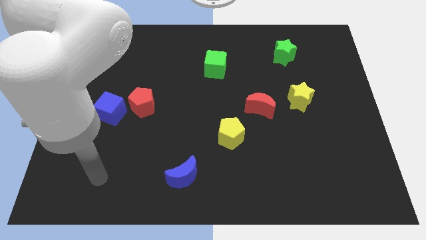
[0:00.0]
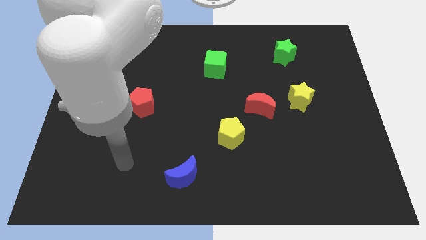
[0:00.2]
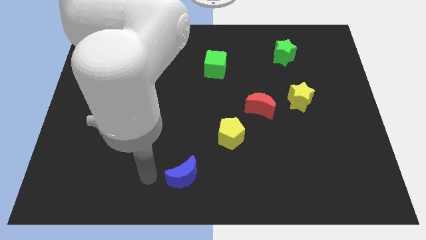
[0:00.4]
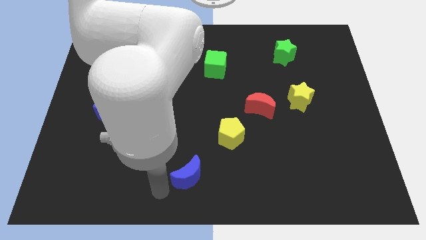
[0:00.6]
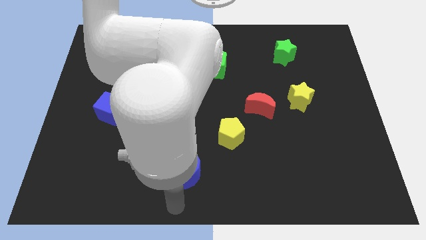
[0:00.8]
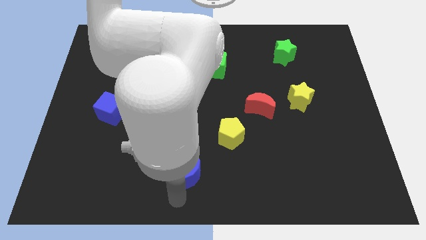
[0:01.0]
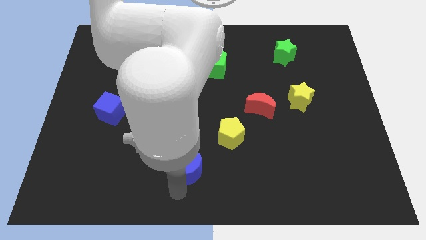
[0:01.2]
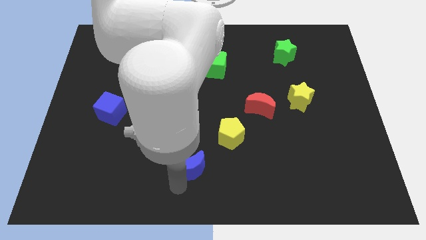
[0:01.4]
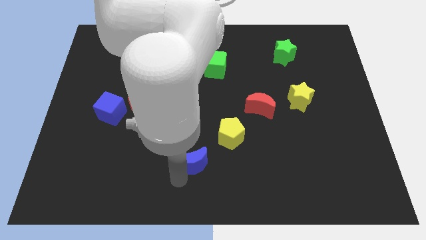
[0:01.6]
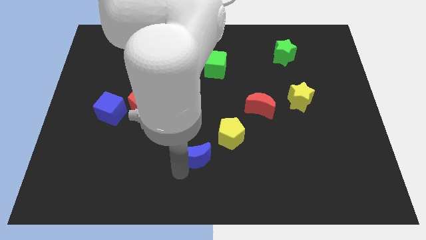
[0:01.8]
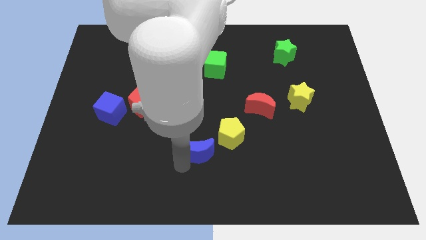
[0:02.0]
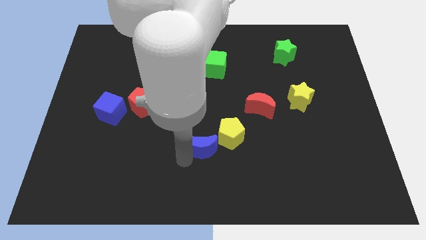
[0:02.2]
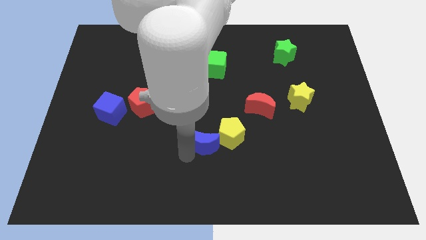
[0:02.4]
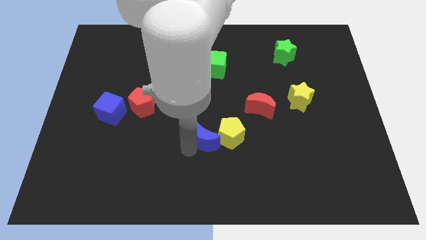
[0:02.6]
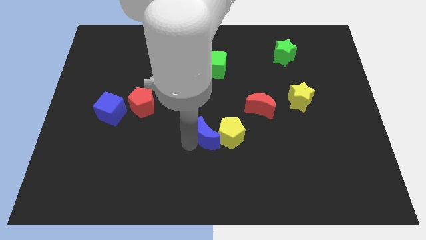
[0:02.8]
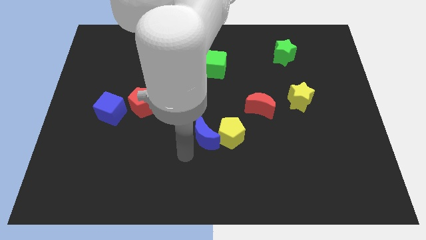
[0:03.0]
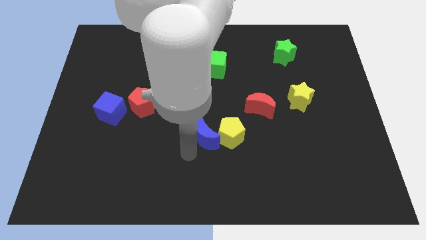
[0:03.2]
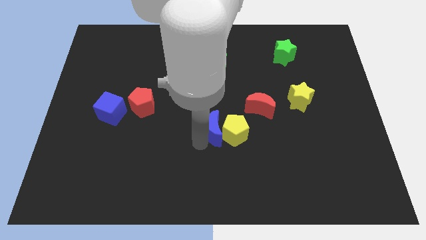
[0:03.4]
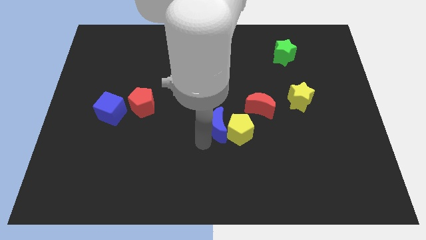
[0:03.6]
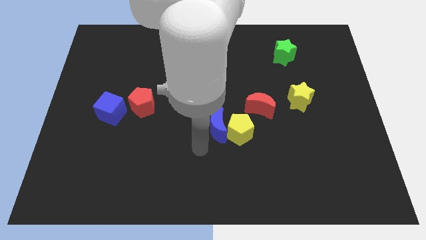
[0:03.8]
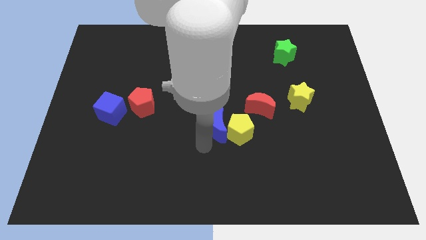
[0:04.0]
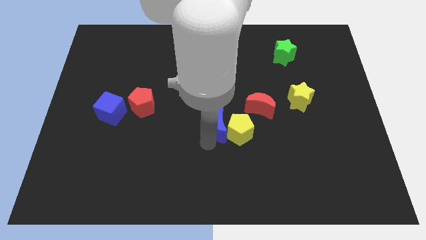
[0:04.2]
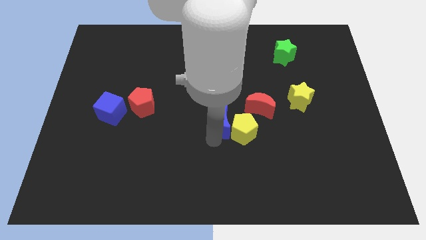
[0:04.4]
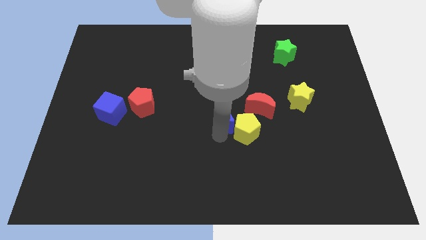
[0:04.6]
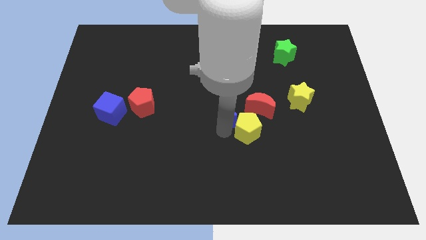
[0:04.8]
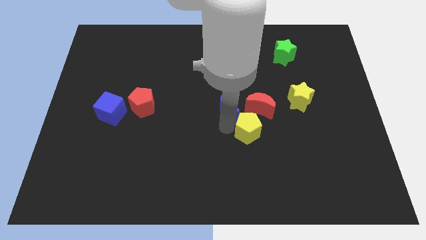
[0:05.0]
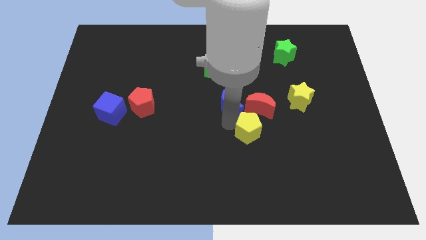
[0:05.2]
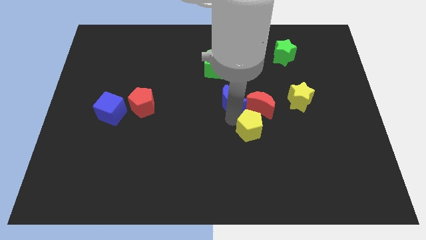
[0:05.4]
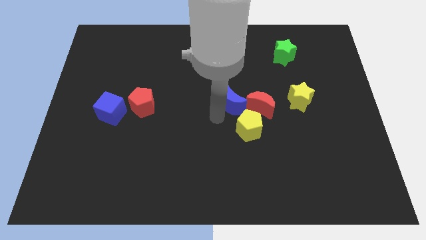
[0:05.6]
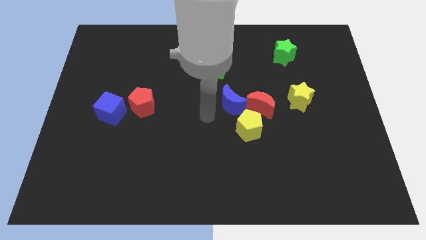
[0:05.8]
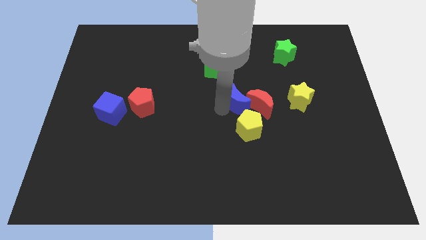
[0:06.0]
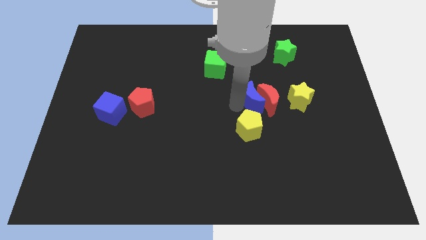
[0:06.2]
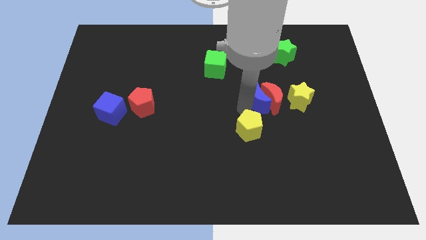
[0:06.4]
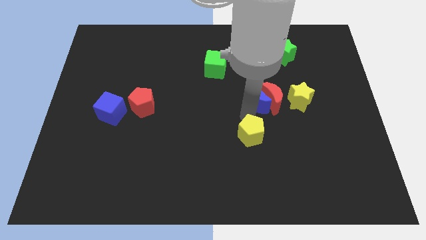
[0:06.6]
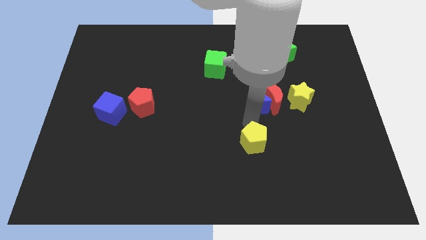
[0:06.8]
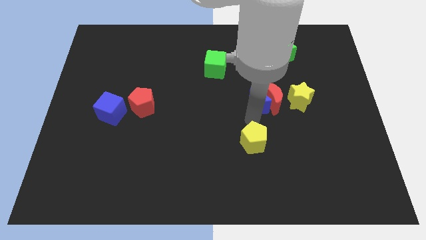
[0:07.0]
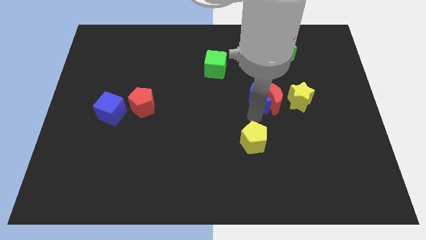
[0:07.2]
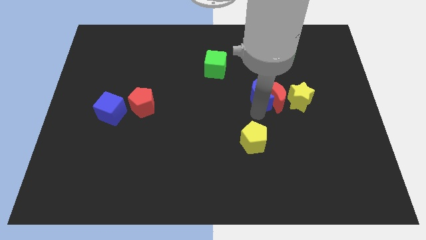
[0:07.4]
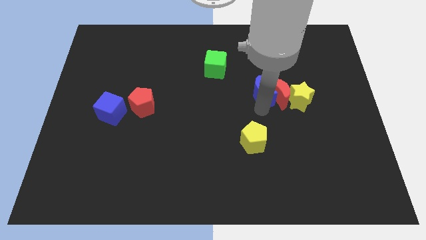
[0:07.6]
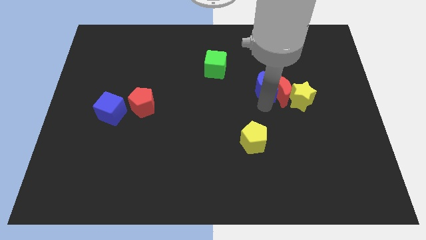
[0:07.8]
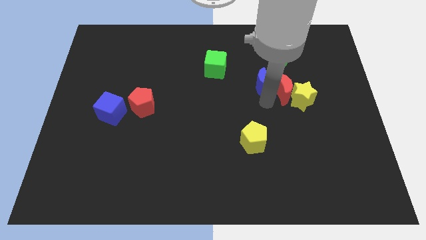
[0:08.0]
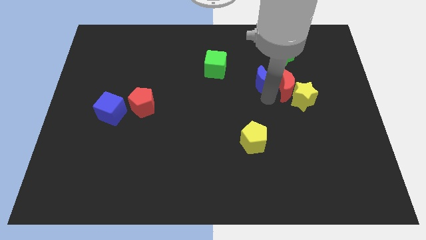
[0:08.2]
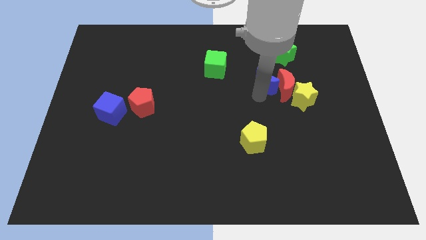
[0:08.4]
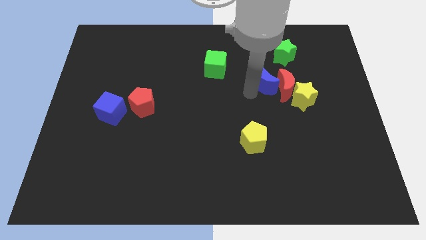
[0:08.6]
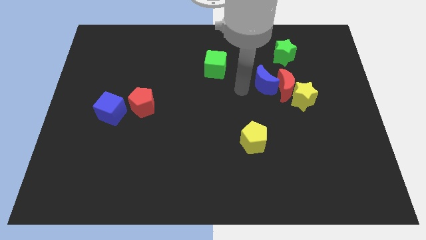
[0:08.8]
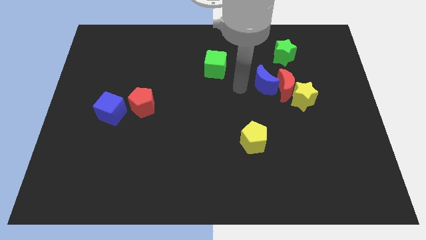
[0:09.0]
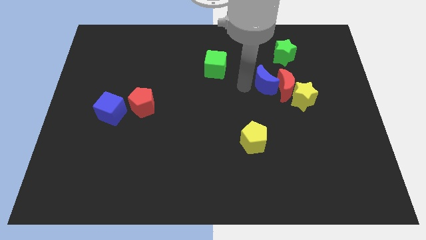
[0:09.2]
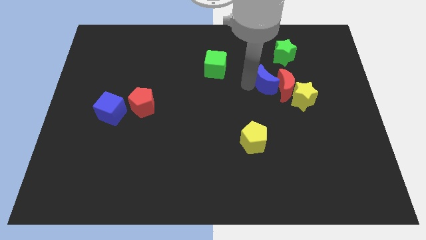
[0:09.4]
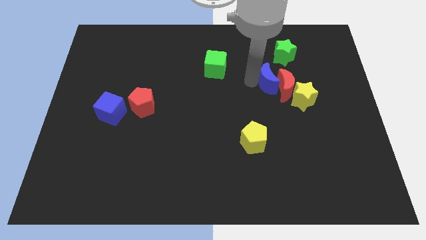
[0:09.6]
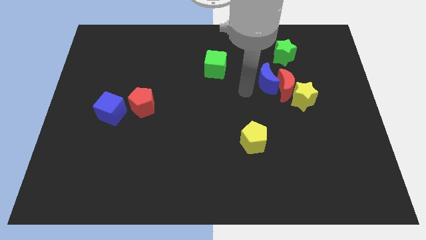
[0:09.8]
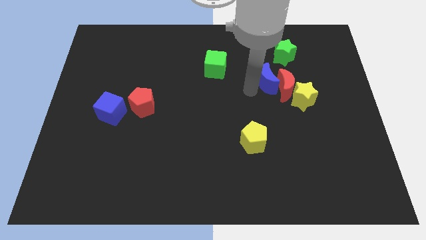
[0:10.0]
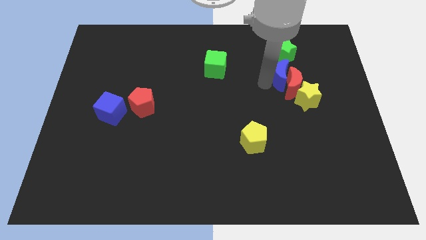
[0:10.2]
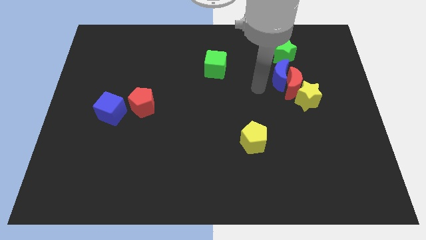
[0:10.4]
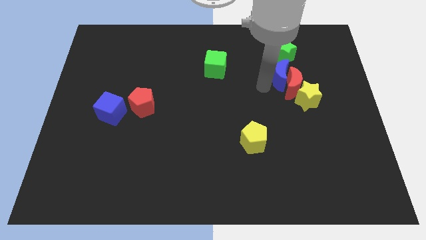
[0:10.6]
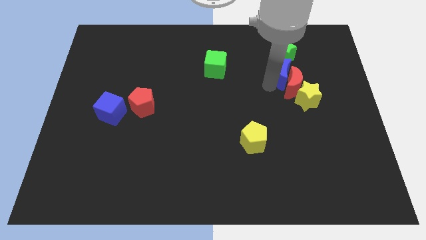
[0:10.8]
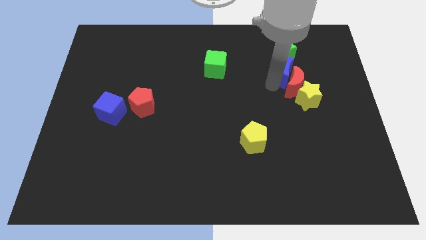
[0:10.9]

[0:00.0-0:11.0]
push the blue moon to the top of the yellow star

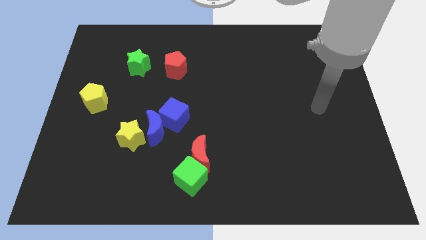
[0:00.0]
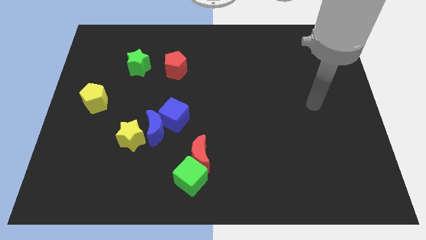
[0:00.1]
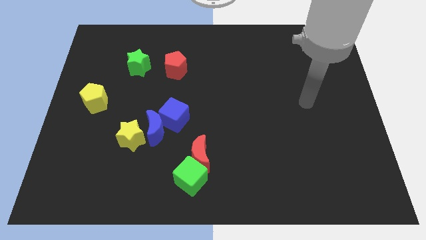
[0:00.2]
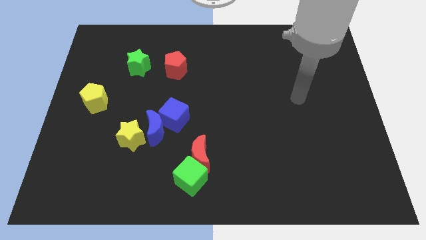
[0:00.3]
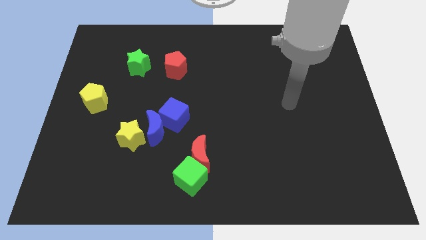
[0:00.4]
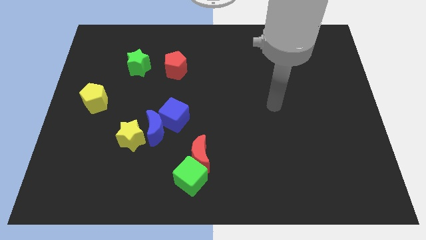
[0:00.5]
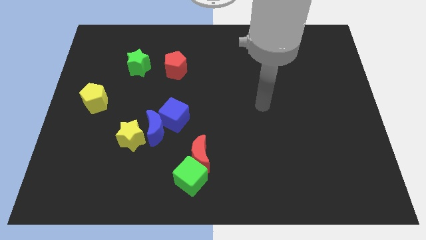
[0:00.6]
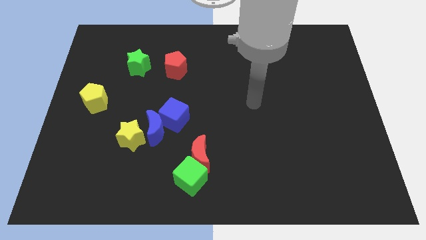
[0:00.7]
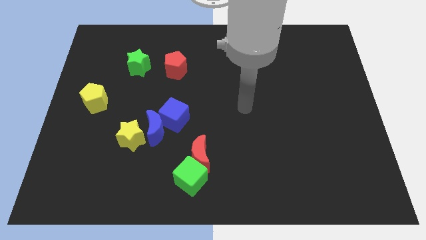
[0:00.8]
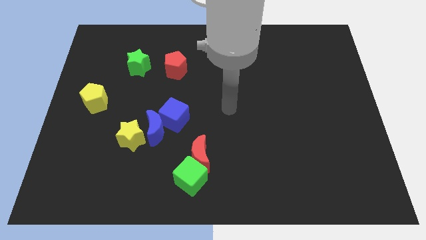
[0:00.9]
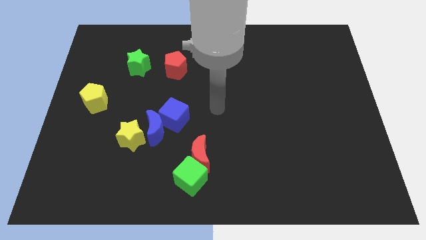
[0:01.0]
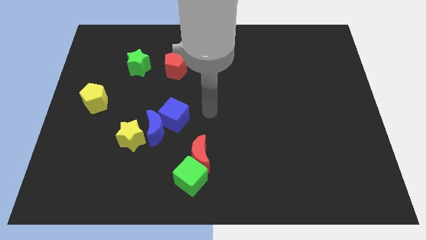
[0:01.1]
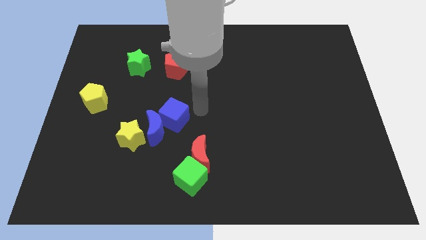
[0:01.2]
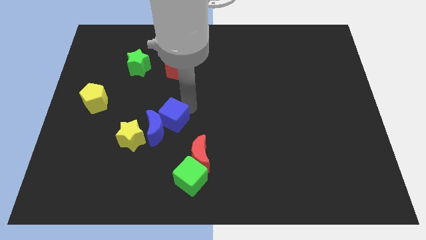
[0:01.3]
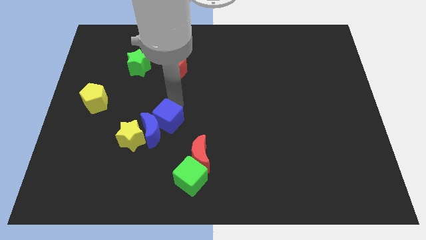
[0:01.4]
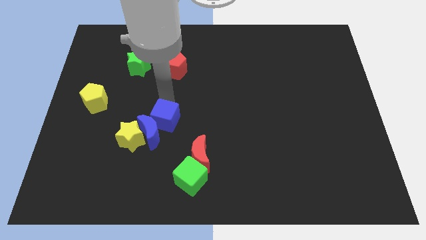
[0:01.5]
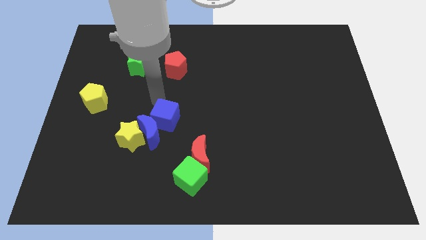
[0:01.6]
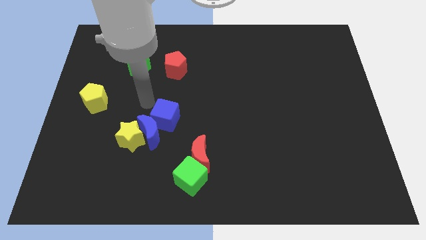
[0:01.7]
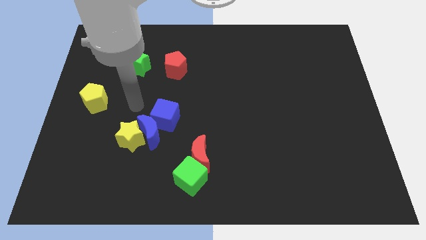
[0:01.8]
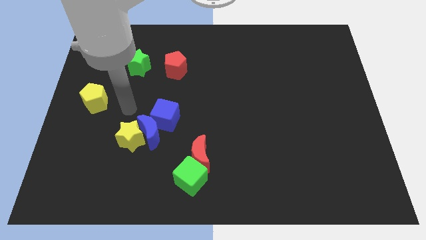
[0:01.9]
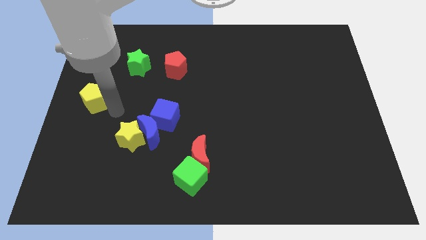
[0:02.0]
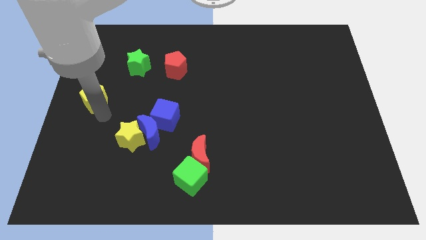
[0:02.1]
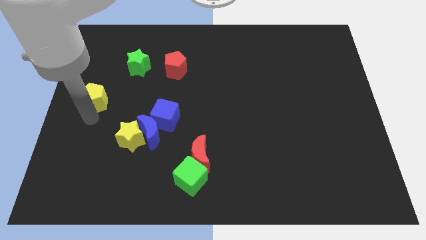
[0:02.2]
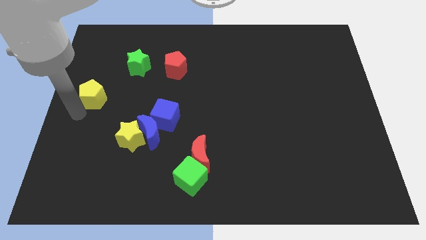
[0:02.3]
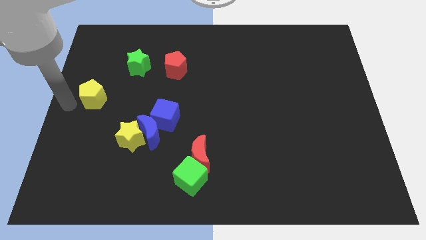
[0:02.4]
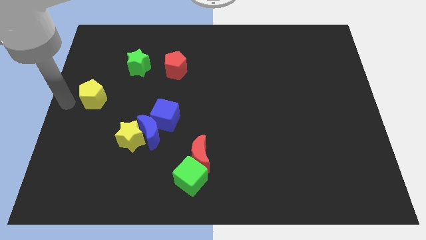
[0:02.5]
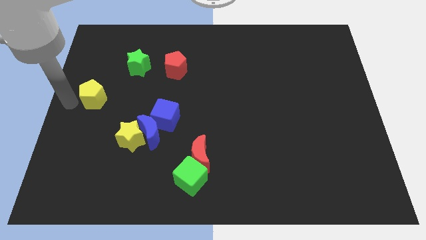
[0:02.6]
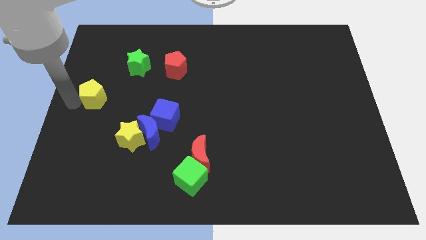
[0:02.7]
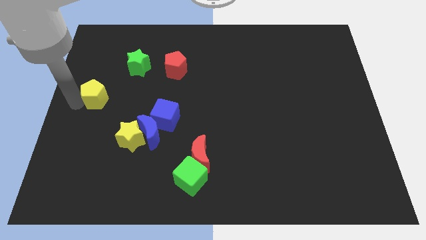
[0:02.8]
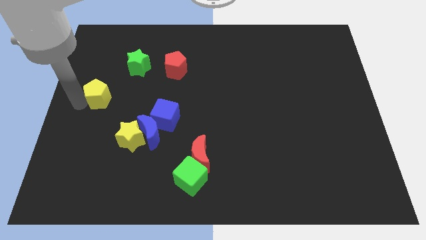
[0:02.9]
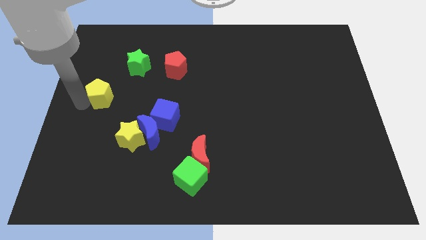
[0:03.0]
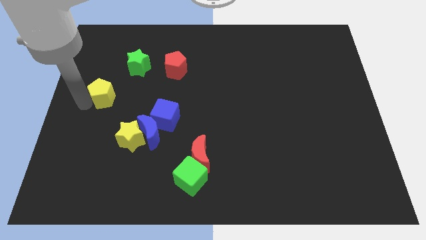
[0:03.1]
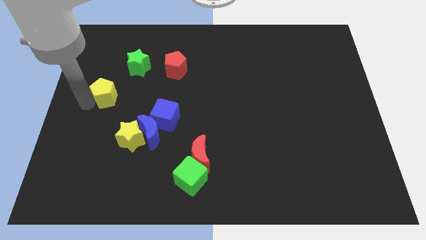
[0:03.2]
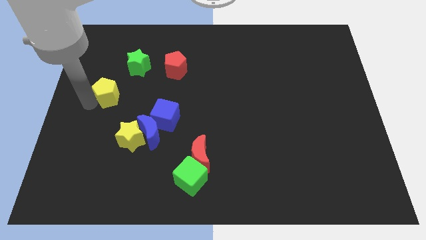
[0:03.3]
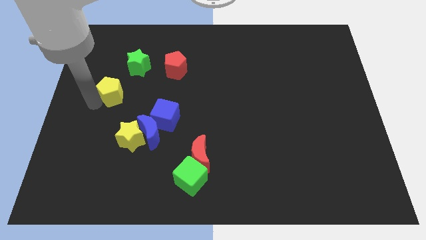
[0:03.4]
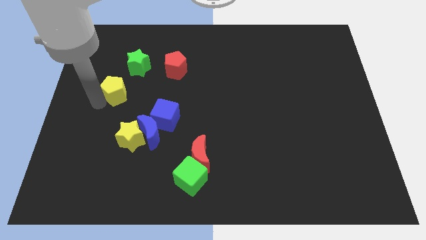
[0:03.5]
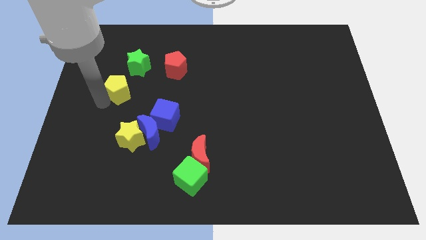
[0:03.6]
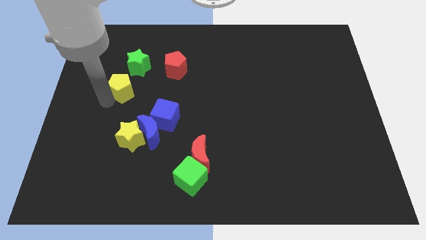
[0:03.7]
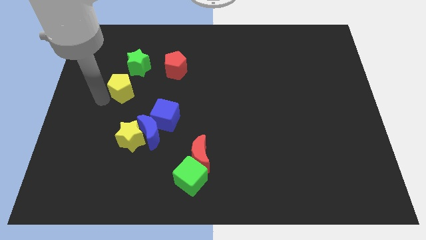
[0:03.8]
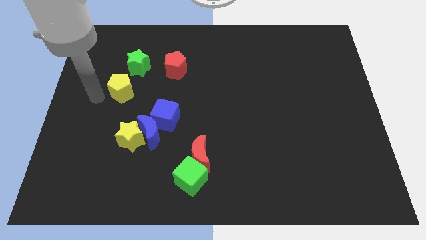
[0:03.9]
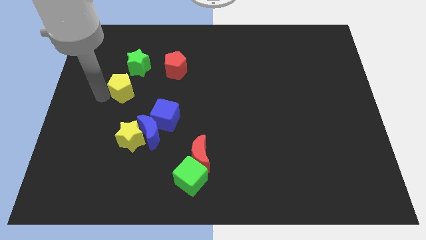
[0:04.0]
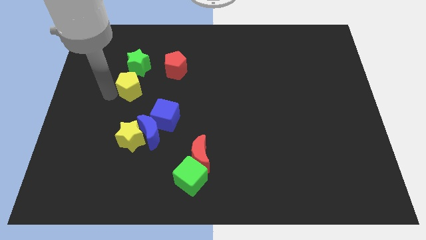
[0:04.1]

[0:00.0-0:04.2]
put the yellow pentagon diagonally down and to the left of the red pentagon
